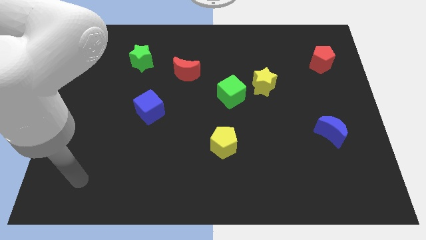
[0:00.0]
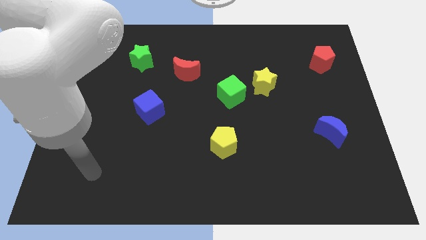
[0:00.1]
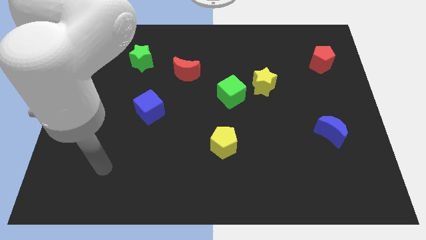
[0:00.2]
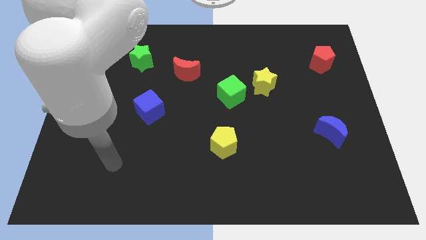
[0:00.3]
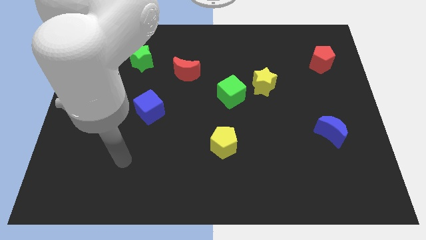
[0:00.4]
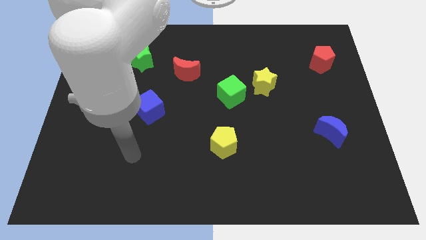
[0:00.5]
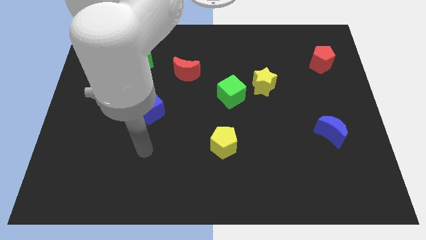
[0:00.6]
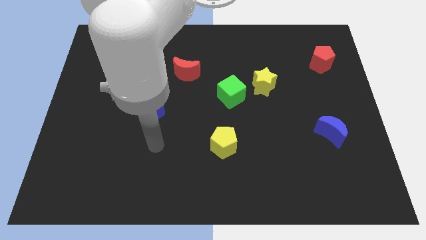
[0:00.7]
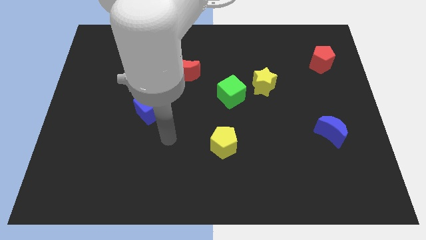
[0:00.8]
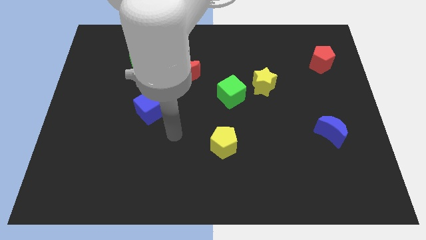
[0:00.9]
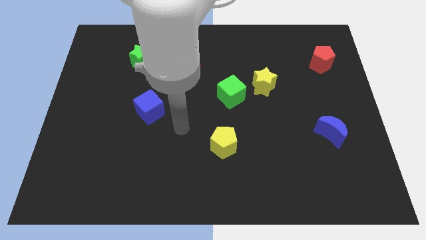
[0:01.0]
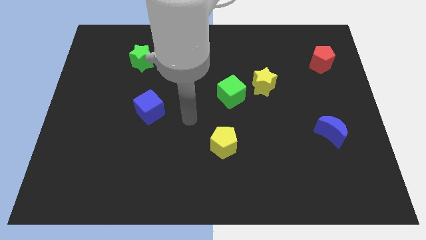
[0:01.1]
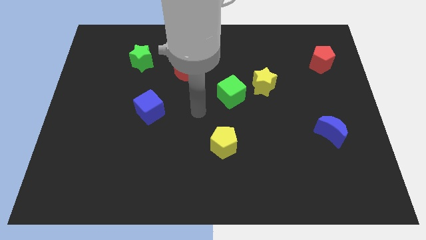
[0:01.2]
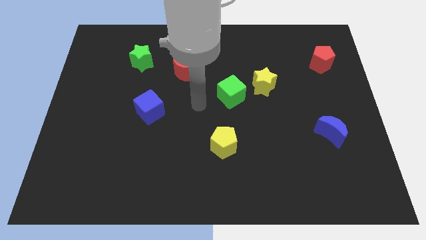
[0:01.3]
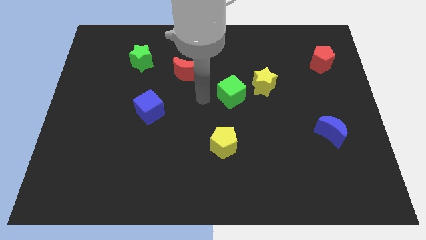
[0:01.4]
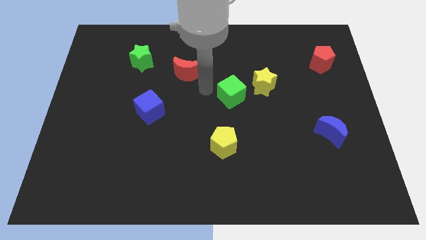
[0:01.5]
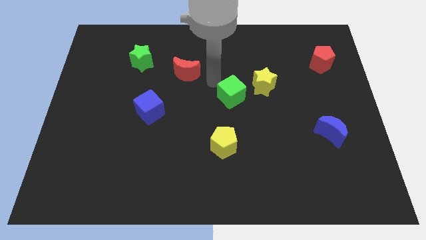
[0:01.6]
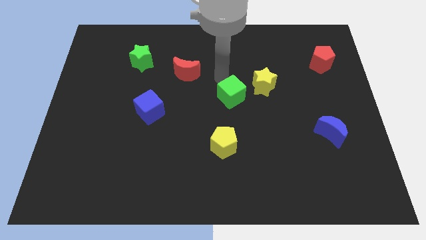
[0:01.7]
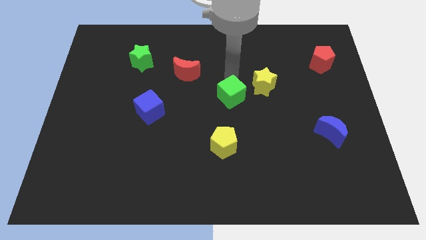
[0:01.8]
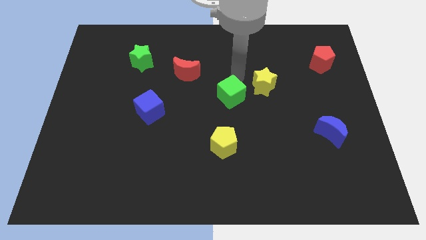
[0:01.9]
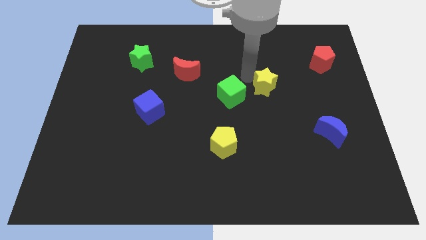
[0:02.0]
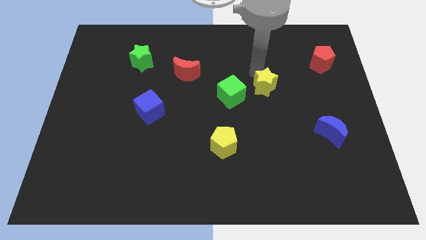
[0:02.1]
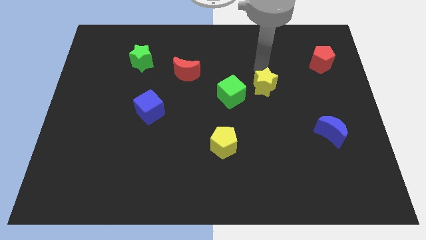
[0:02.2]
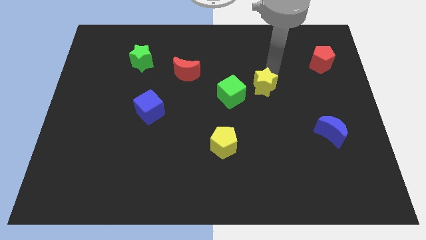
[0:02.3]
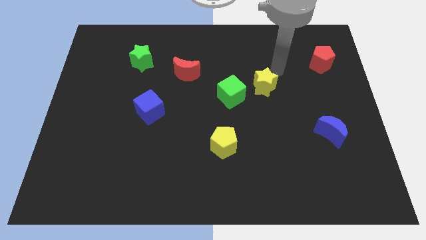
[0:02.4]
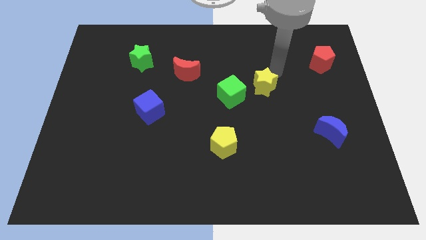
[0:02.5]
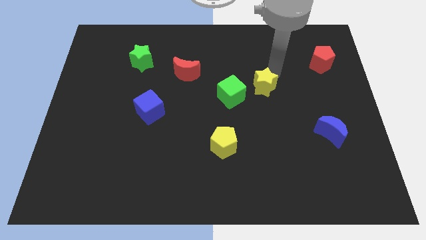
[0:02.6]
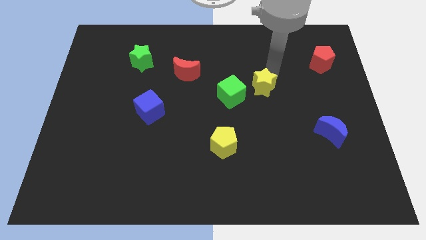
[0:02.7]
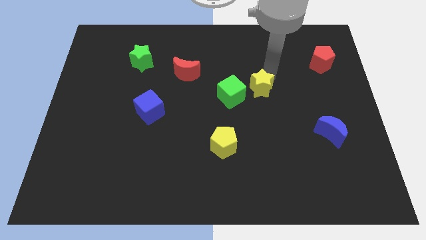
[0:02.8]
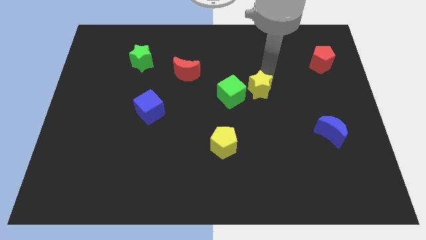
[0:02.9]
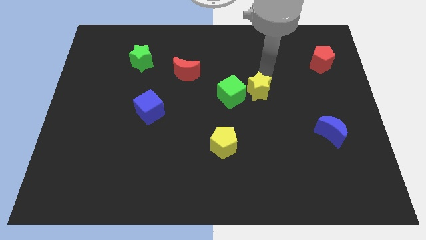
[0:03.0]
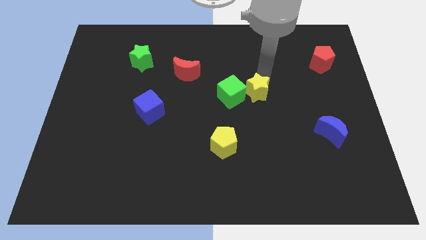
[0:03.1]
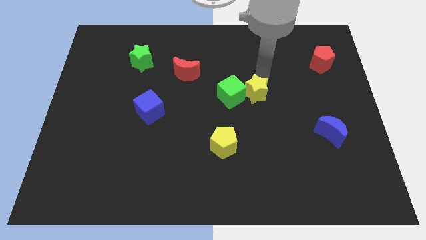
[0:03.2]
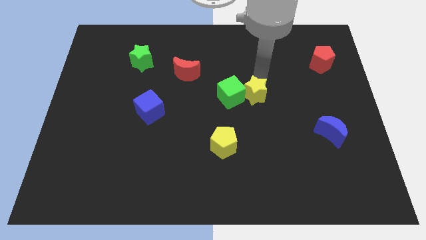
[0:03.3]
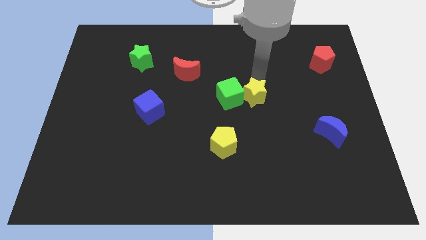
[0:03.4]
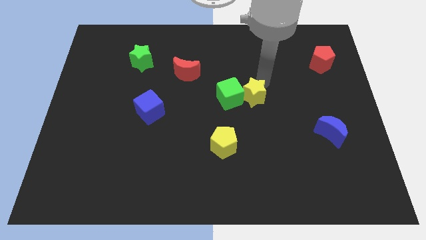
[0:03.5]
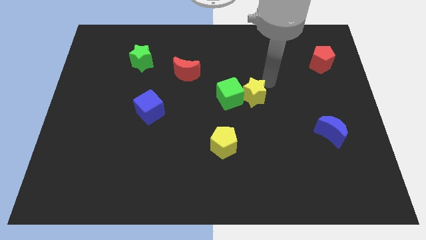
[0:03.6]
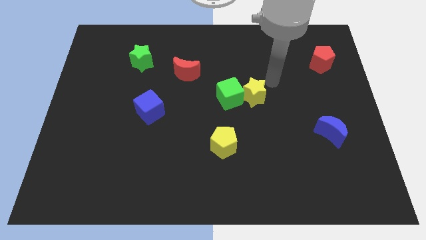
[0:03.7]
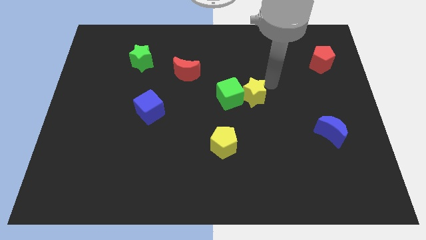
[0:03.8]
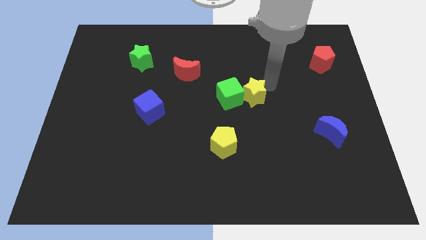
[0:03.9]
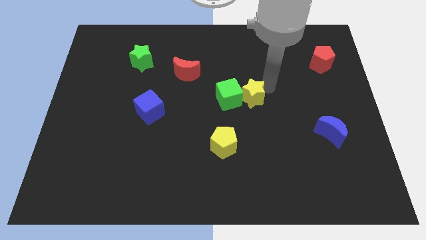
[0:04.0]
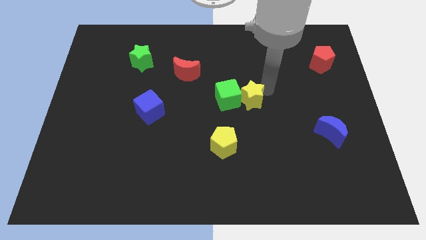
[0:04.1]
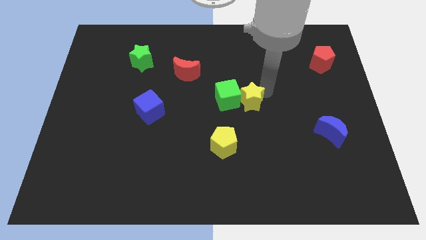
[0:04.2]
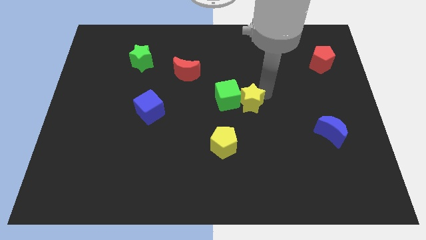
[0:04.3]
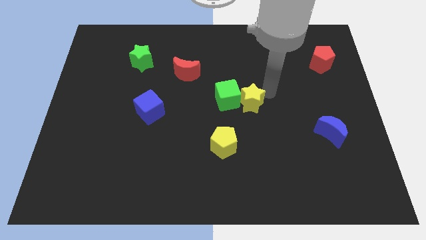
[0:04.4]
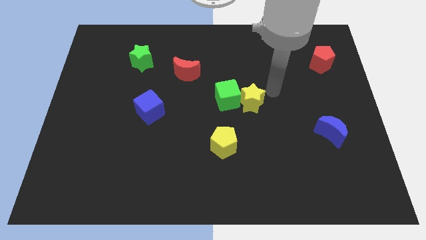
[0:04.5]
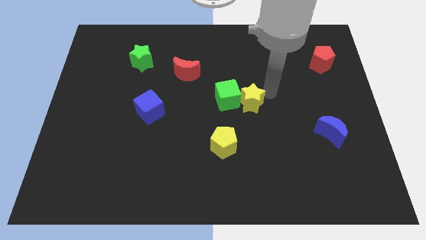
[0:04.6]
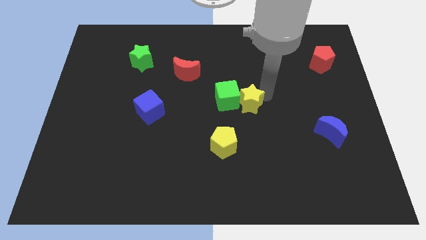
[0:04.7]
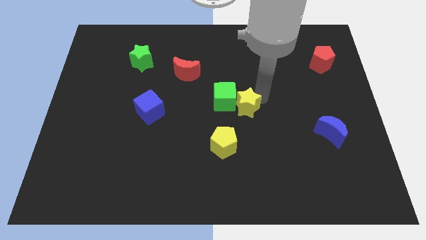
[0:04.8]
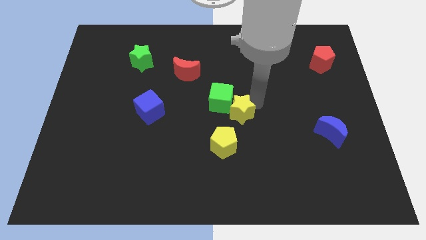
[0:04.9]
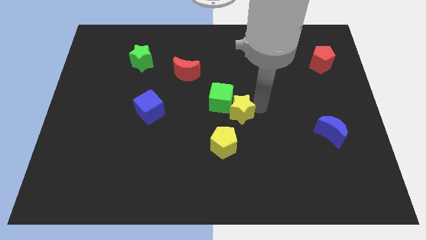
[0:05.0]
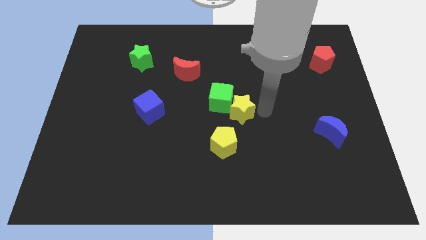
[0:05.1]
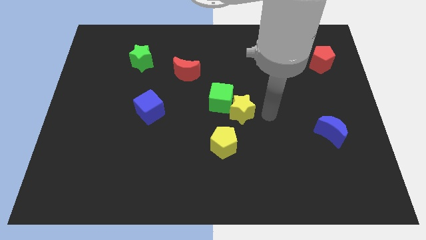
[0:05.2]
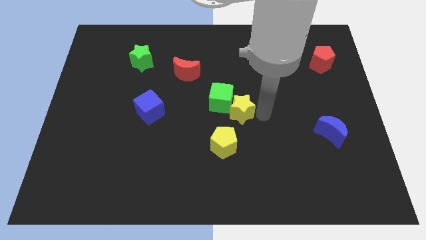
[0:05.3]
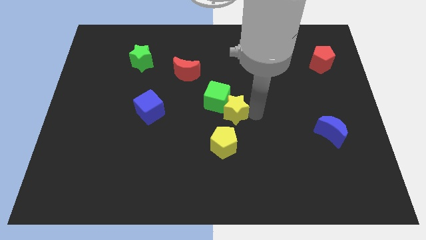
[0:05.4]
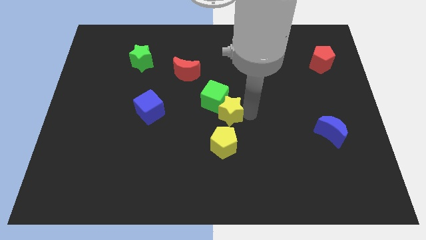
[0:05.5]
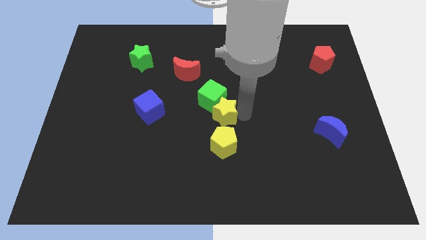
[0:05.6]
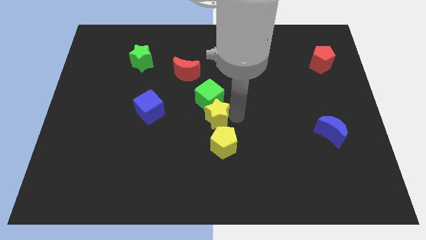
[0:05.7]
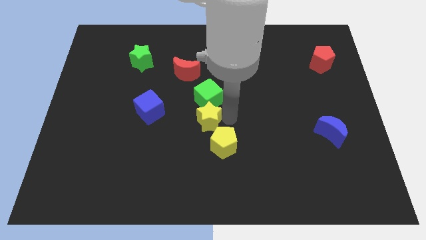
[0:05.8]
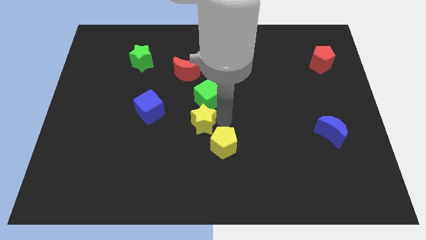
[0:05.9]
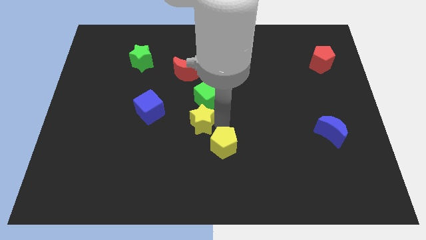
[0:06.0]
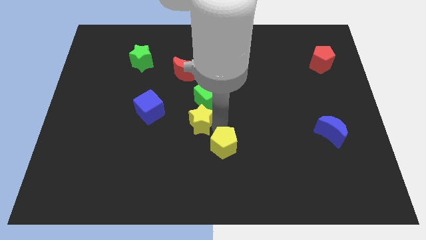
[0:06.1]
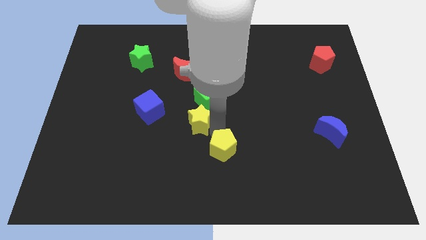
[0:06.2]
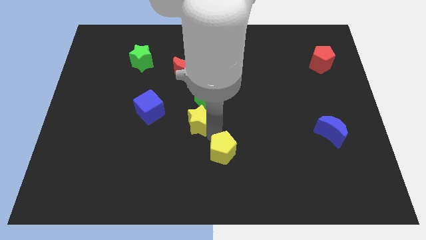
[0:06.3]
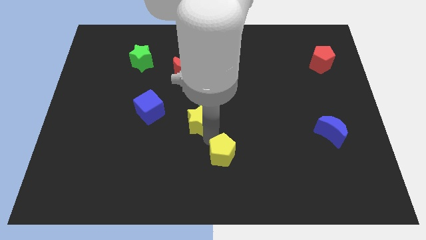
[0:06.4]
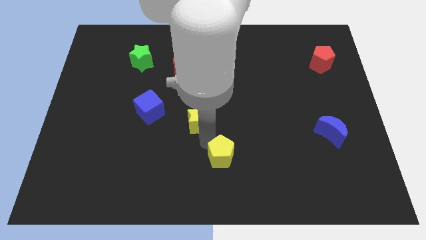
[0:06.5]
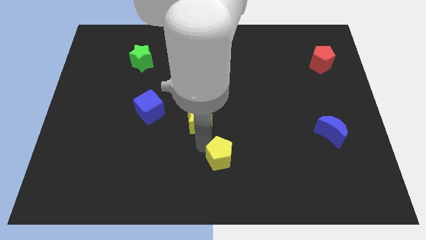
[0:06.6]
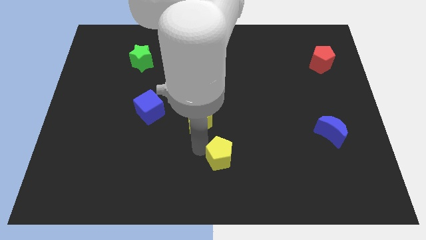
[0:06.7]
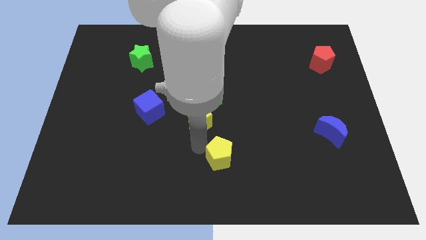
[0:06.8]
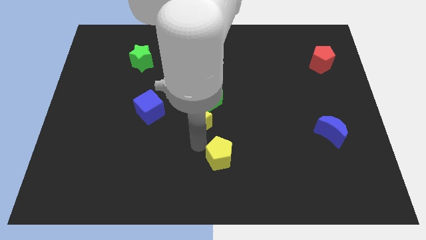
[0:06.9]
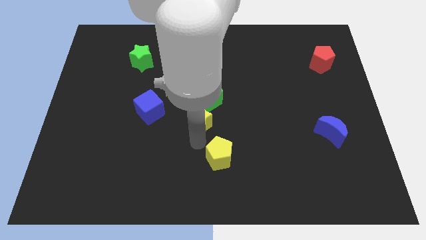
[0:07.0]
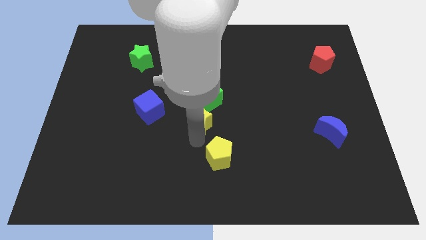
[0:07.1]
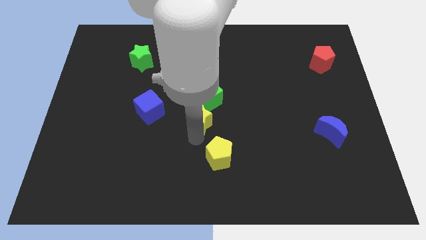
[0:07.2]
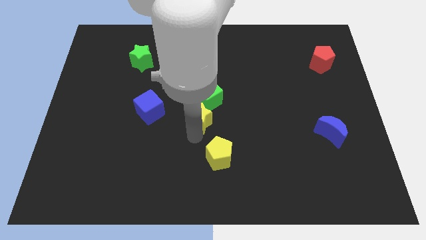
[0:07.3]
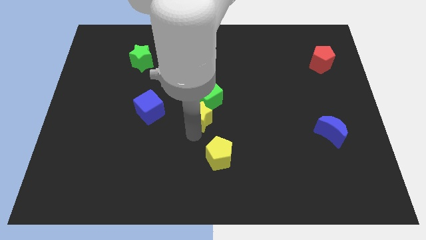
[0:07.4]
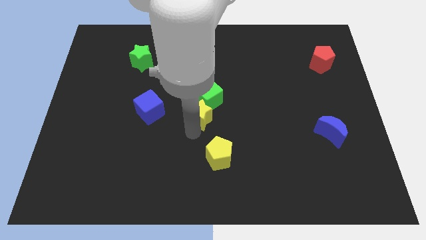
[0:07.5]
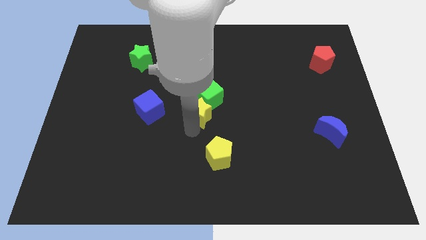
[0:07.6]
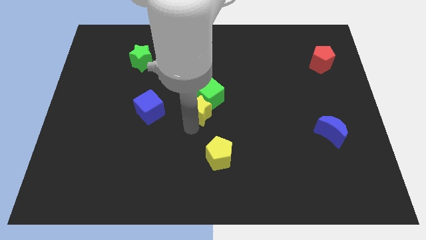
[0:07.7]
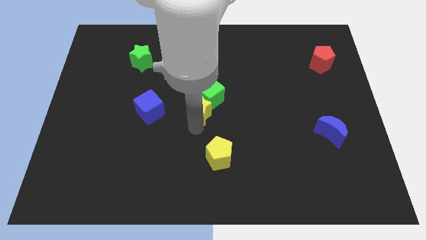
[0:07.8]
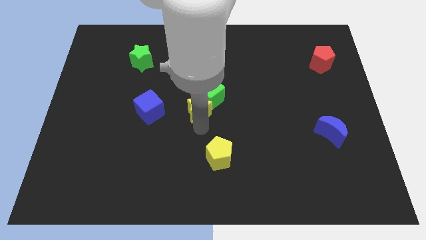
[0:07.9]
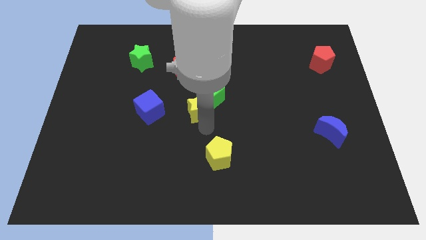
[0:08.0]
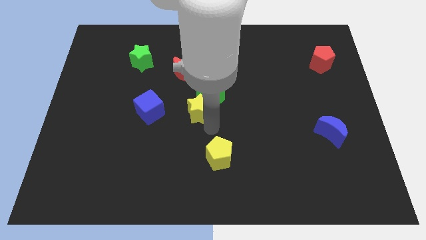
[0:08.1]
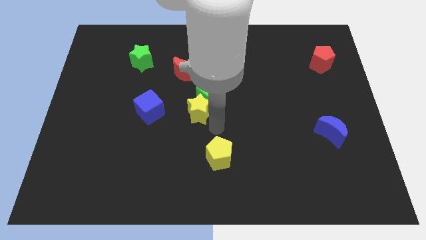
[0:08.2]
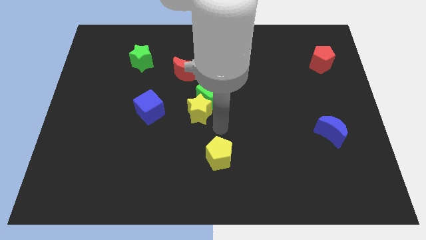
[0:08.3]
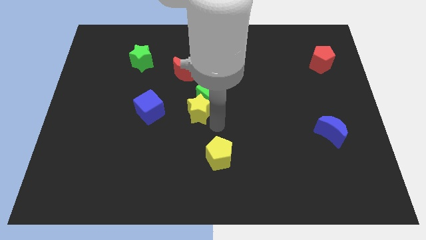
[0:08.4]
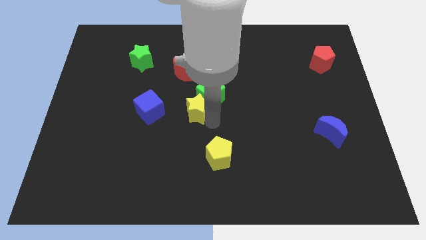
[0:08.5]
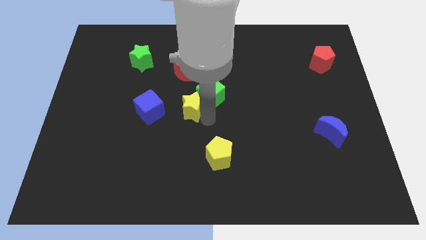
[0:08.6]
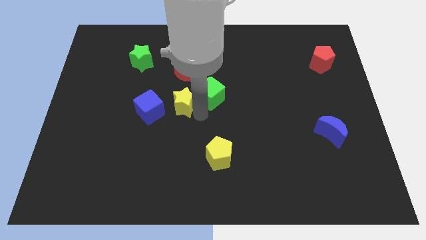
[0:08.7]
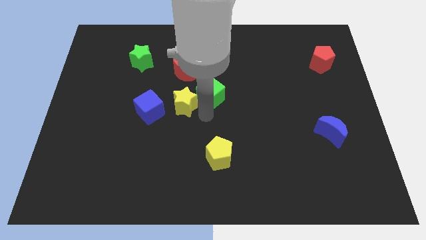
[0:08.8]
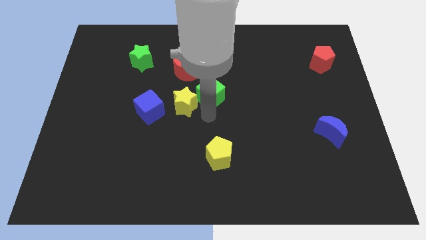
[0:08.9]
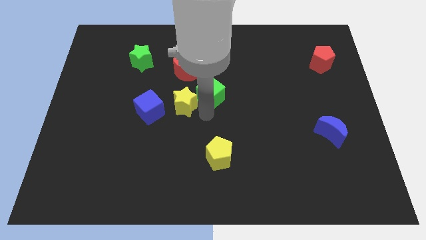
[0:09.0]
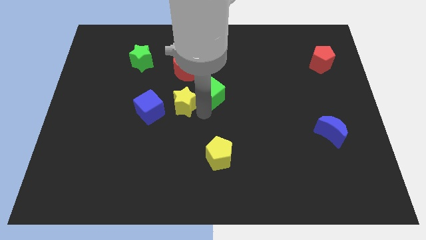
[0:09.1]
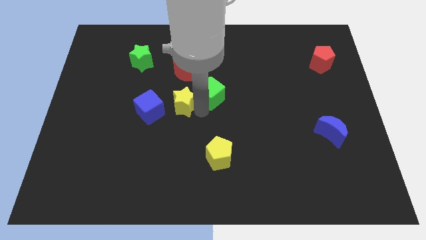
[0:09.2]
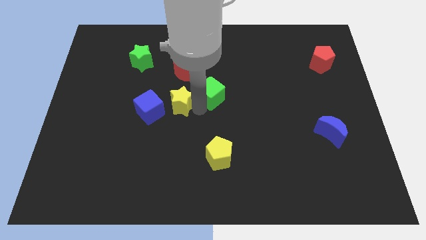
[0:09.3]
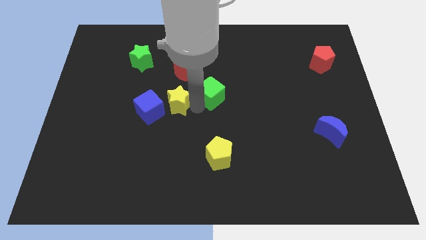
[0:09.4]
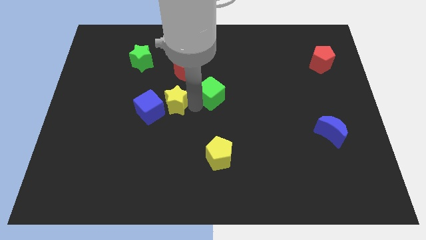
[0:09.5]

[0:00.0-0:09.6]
slide the yellow star left
